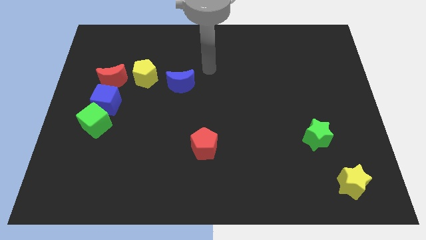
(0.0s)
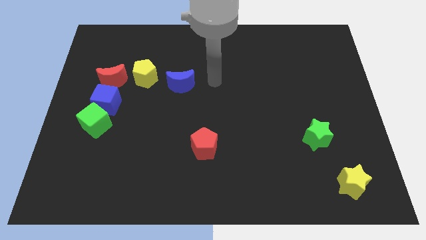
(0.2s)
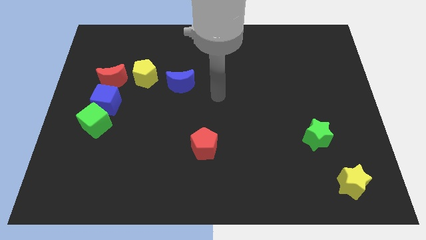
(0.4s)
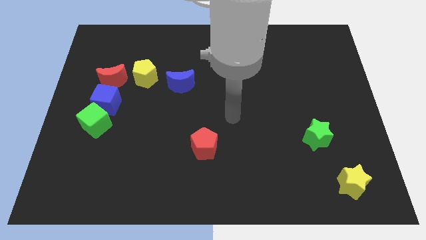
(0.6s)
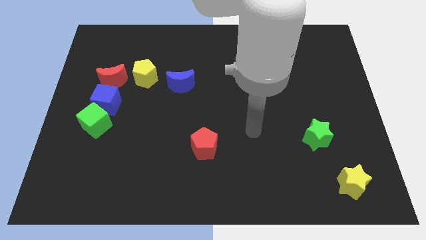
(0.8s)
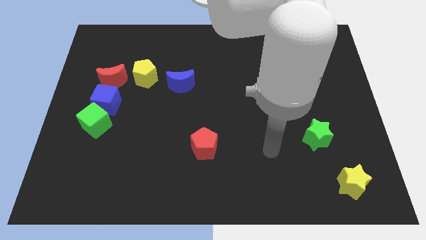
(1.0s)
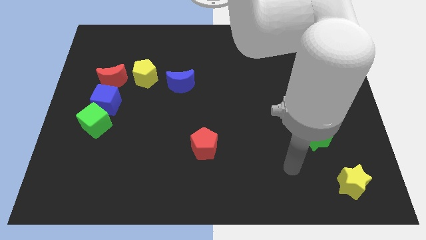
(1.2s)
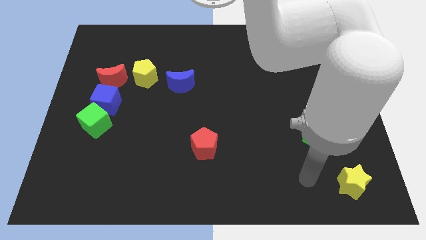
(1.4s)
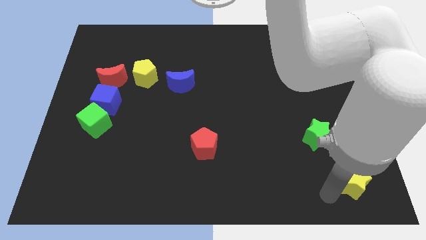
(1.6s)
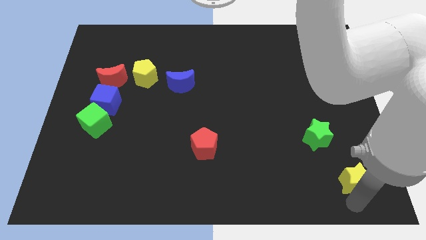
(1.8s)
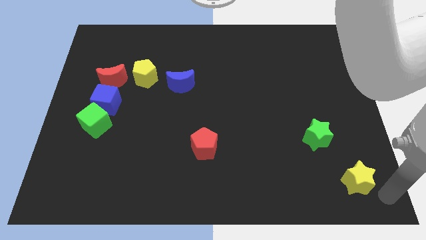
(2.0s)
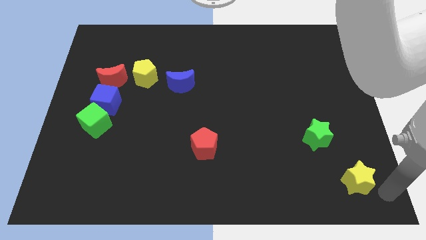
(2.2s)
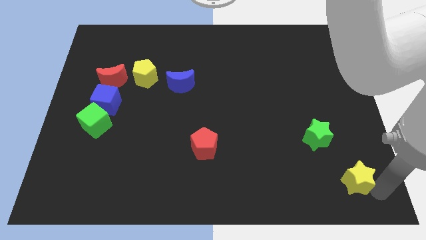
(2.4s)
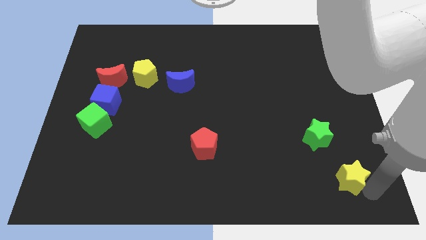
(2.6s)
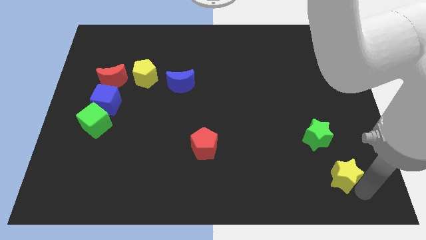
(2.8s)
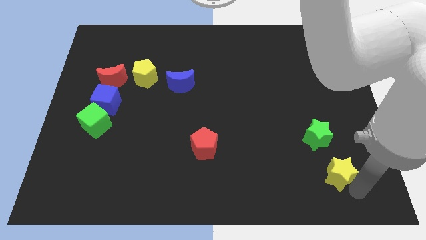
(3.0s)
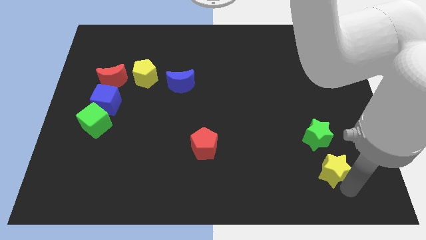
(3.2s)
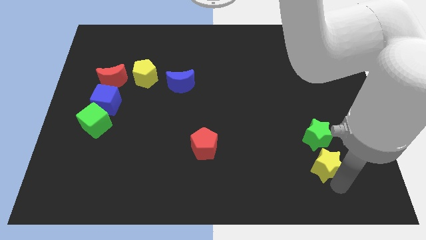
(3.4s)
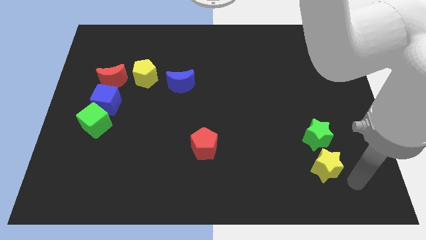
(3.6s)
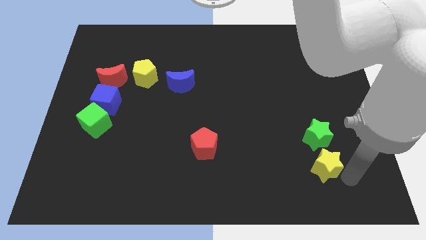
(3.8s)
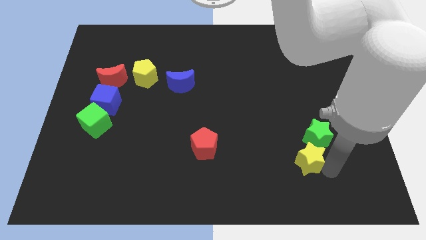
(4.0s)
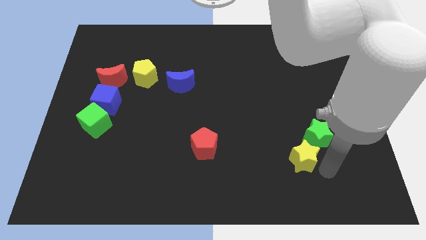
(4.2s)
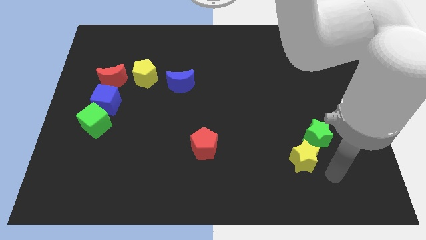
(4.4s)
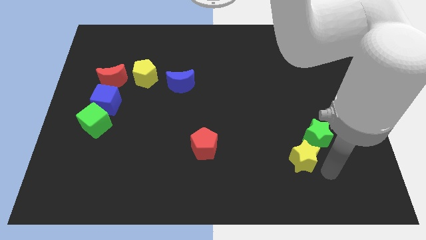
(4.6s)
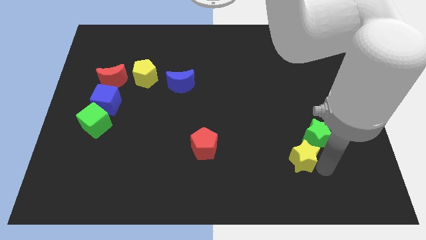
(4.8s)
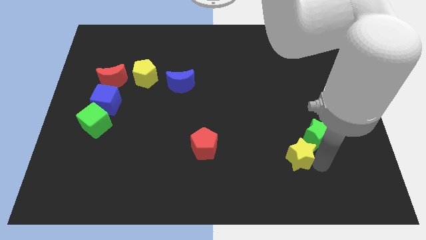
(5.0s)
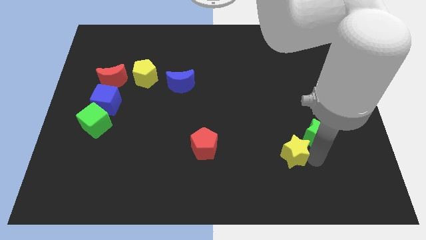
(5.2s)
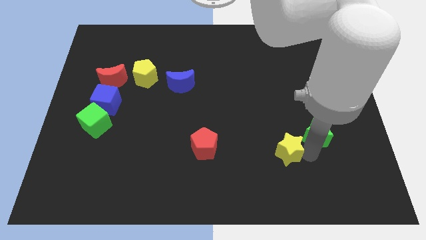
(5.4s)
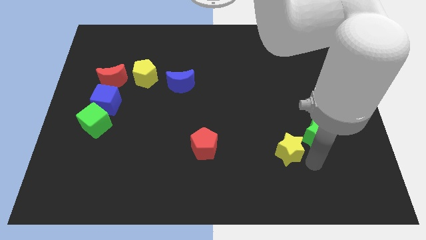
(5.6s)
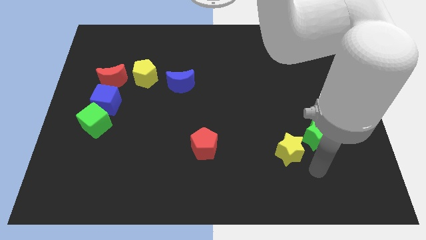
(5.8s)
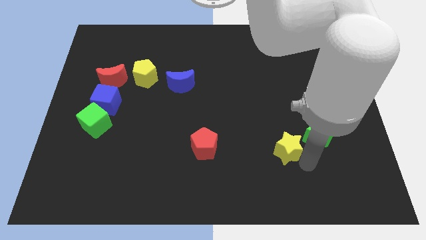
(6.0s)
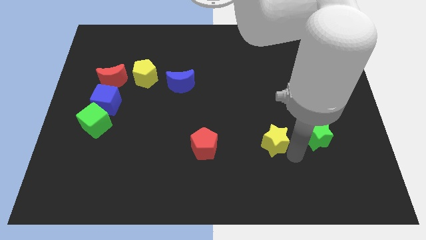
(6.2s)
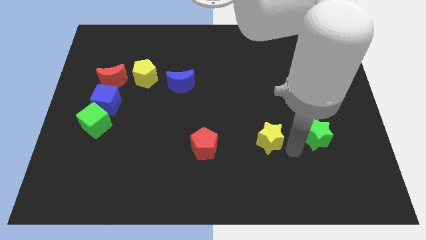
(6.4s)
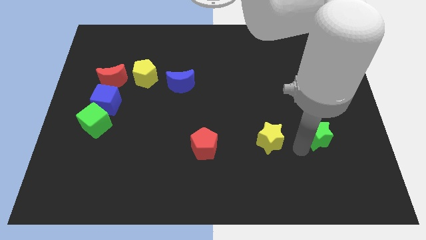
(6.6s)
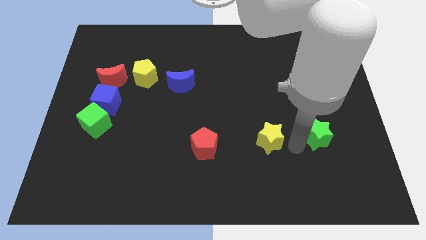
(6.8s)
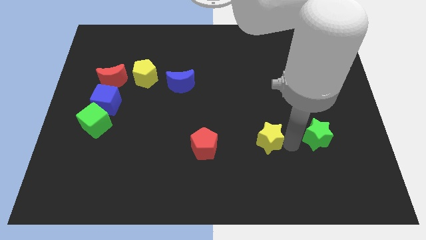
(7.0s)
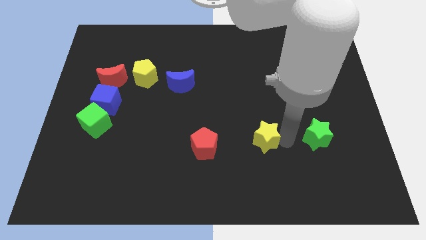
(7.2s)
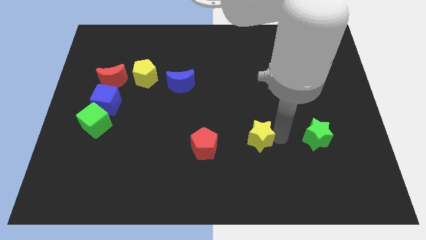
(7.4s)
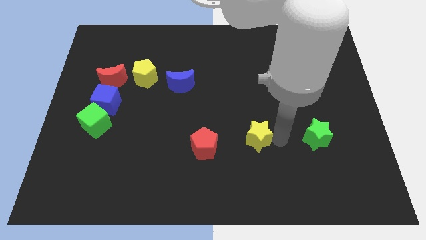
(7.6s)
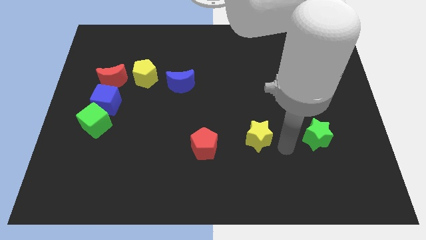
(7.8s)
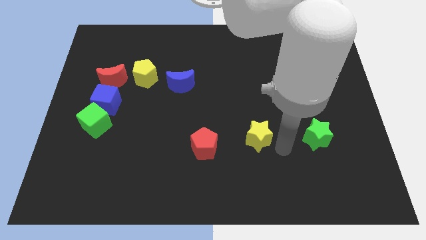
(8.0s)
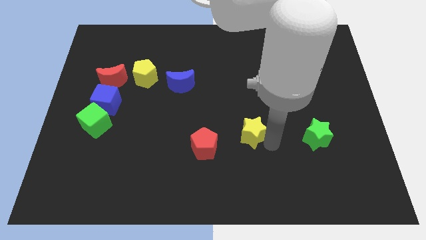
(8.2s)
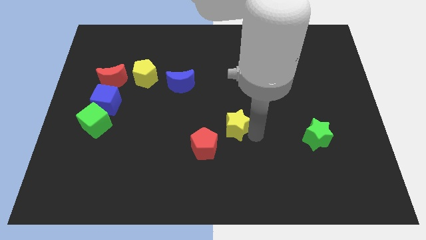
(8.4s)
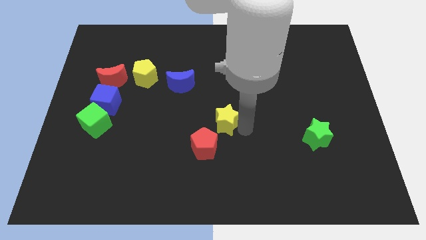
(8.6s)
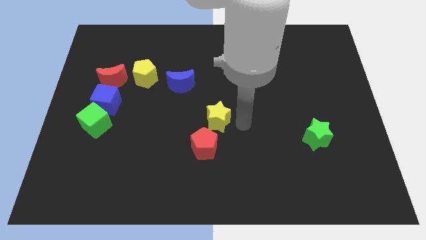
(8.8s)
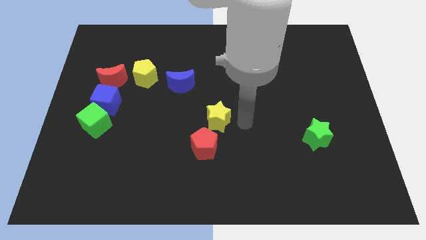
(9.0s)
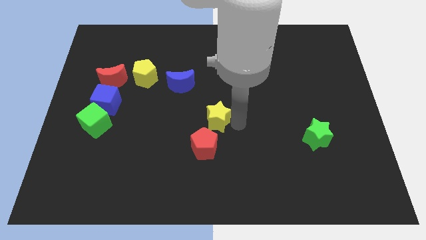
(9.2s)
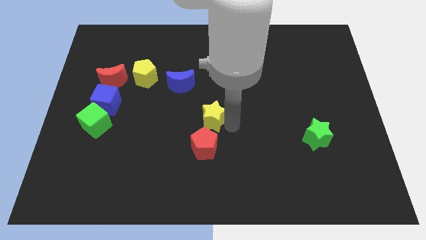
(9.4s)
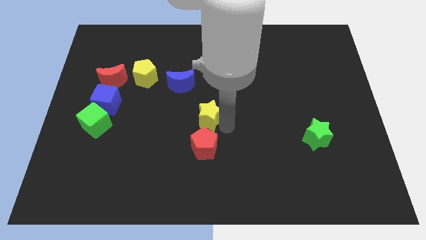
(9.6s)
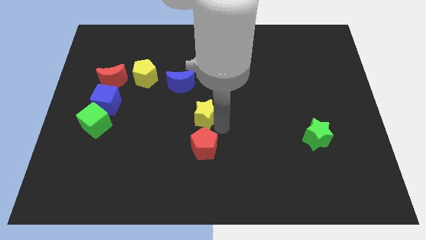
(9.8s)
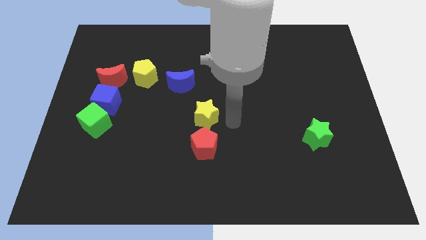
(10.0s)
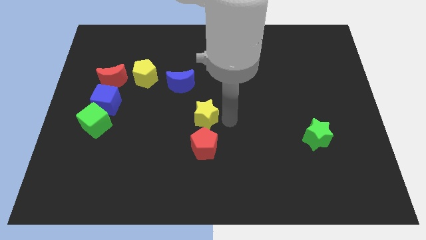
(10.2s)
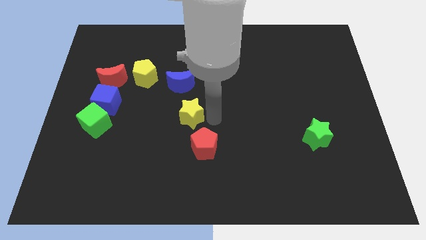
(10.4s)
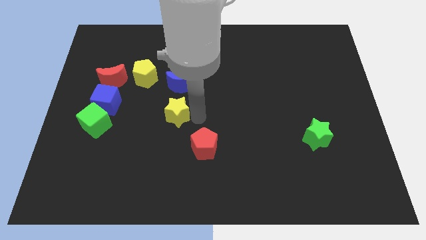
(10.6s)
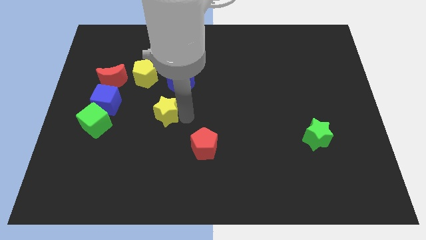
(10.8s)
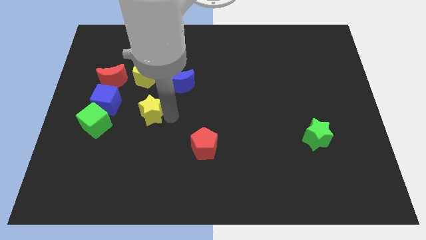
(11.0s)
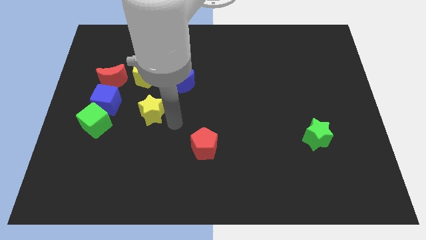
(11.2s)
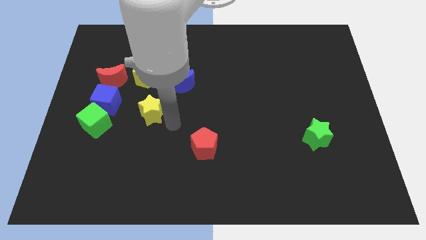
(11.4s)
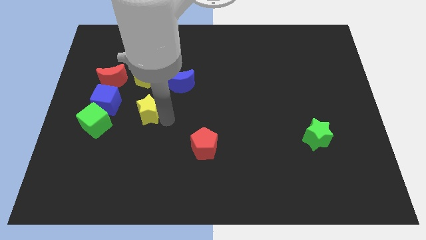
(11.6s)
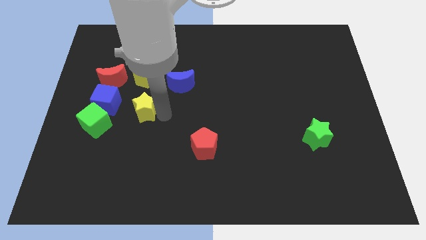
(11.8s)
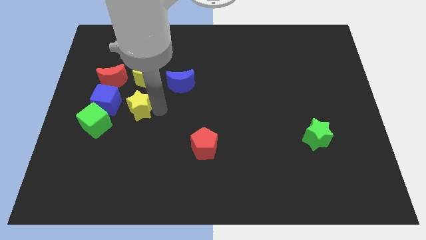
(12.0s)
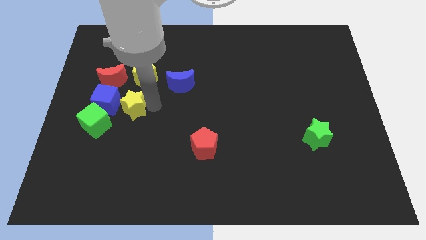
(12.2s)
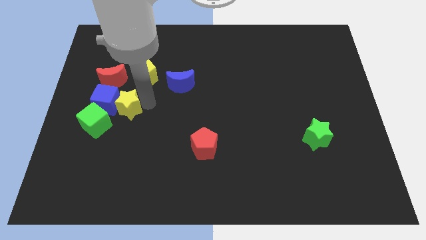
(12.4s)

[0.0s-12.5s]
push the yellow star towards the blue cube

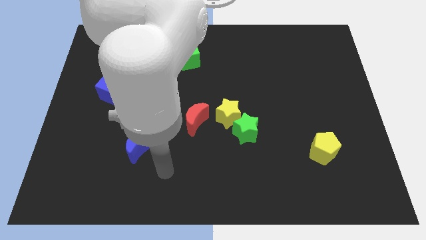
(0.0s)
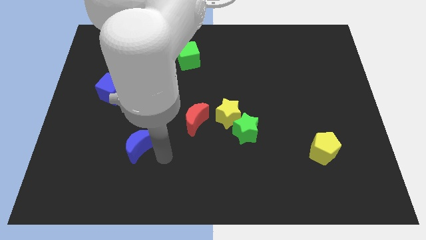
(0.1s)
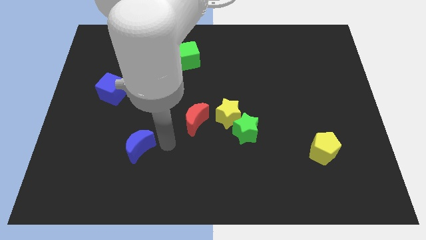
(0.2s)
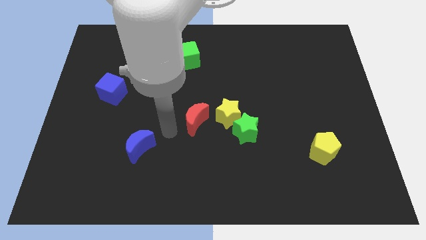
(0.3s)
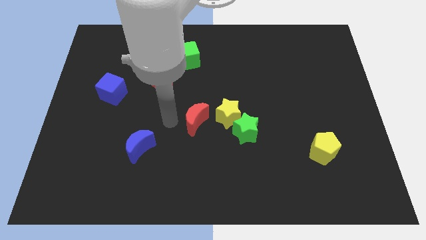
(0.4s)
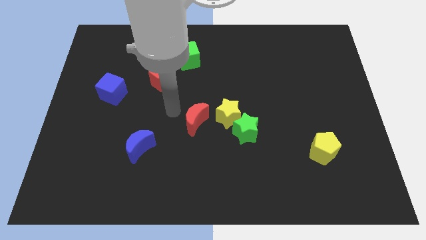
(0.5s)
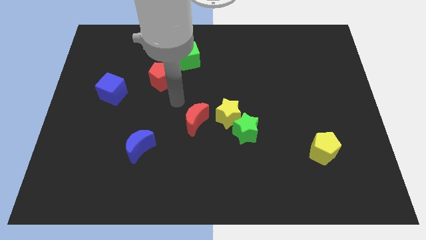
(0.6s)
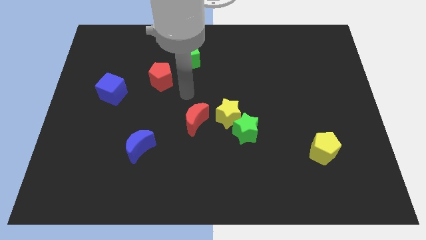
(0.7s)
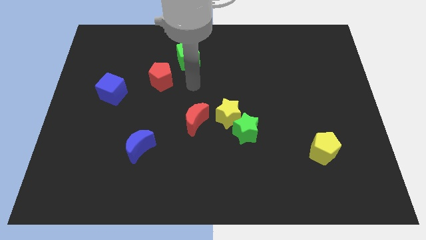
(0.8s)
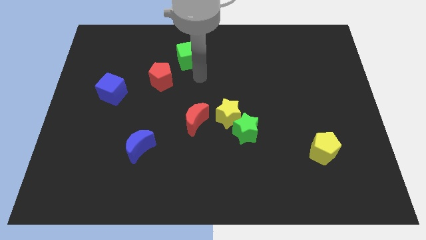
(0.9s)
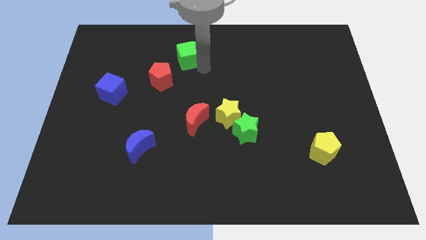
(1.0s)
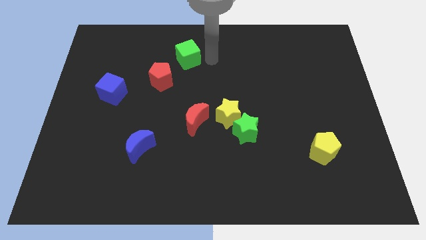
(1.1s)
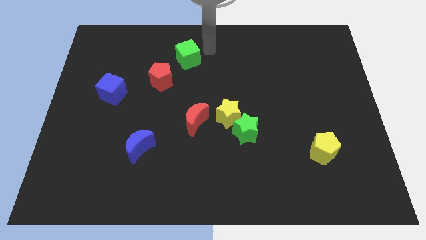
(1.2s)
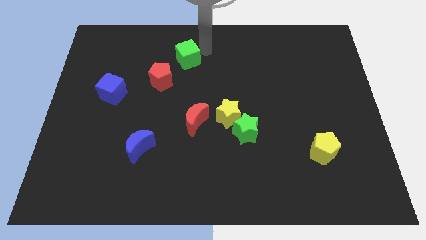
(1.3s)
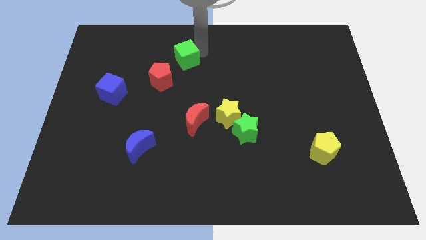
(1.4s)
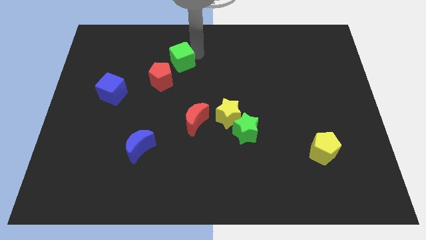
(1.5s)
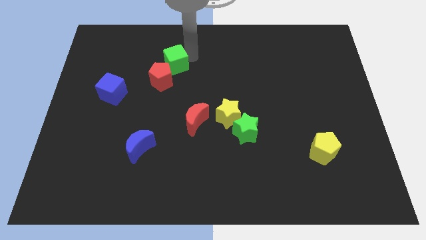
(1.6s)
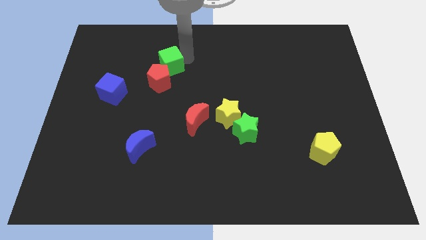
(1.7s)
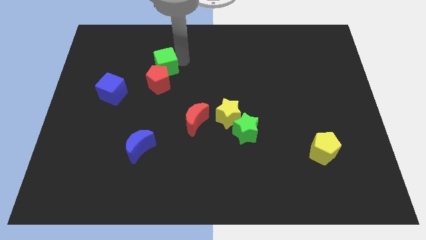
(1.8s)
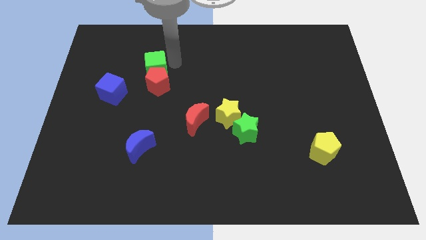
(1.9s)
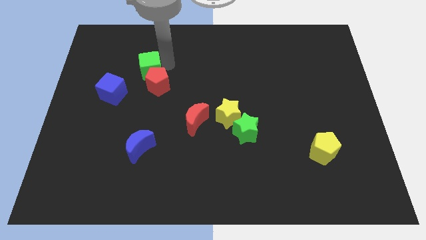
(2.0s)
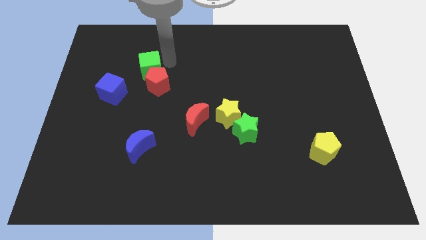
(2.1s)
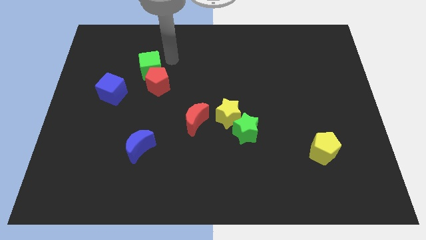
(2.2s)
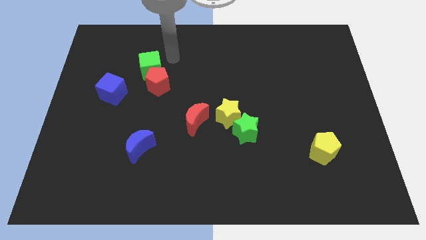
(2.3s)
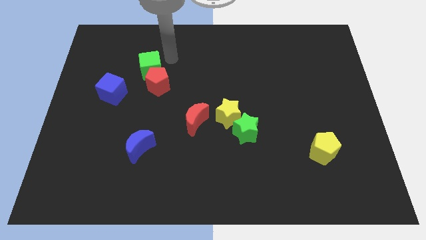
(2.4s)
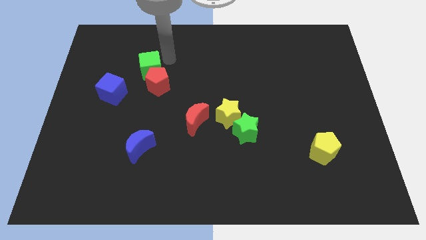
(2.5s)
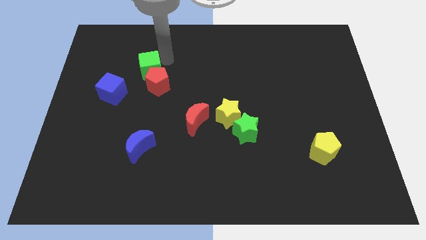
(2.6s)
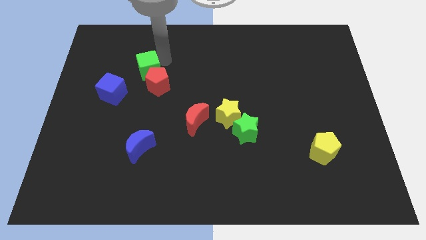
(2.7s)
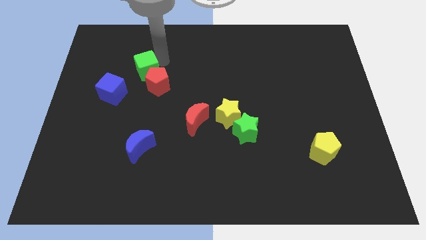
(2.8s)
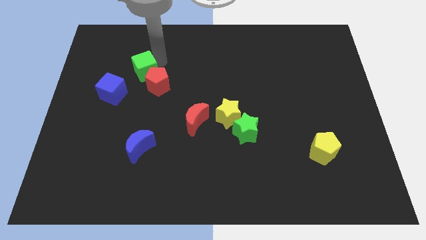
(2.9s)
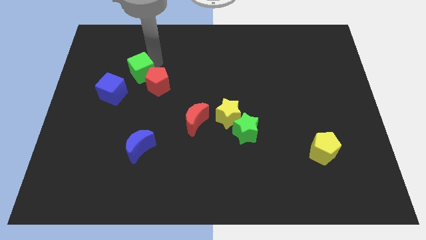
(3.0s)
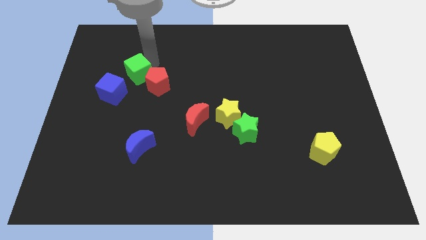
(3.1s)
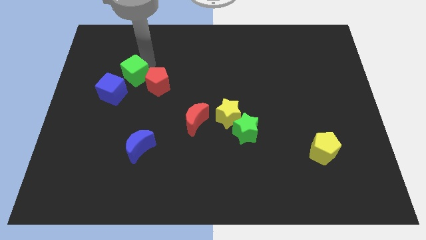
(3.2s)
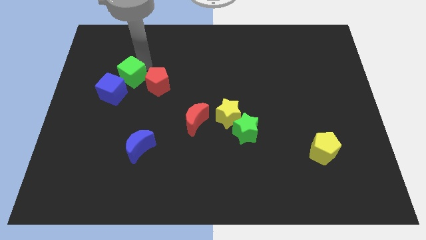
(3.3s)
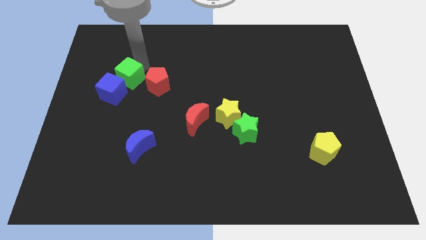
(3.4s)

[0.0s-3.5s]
slide the green cube next to the blue cube
